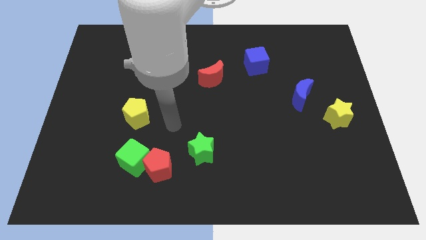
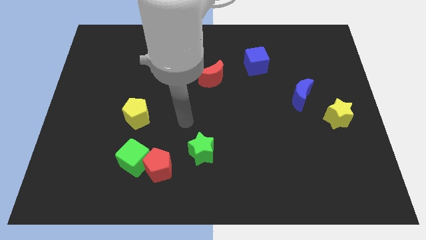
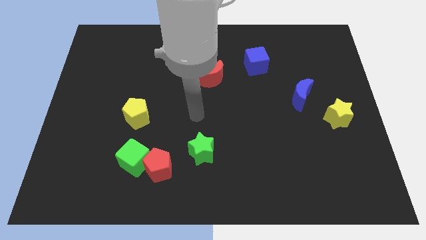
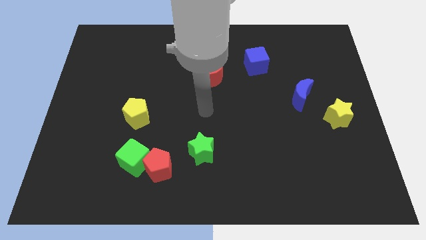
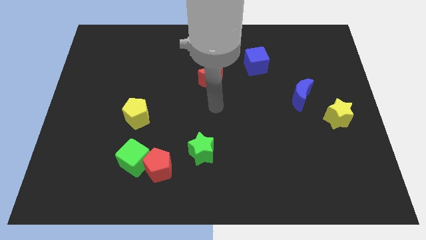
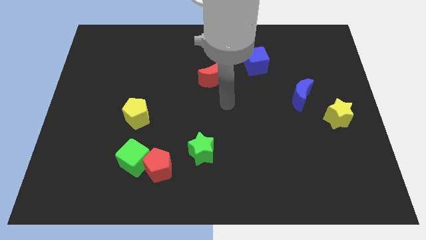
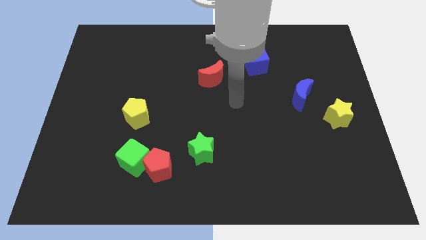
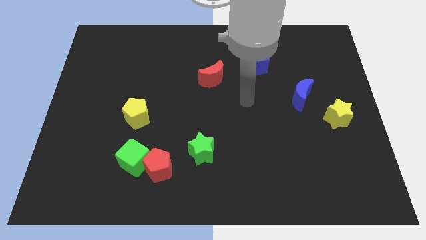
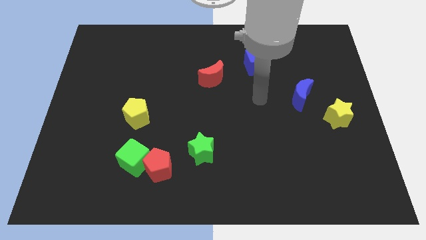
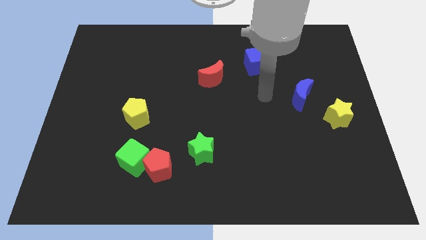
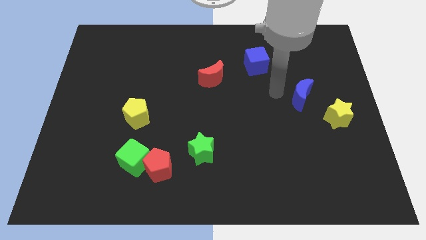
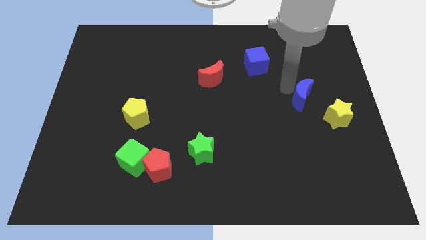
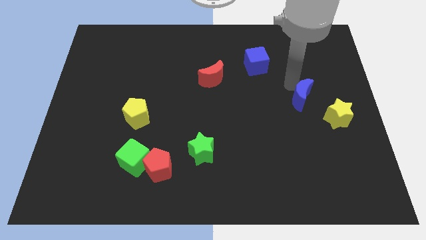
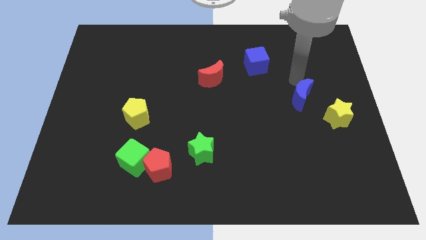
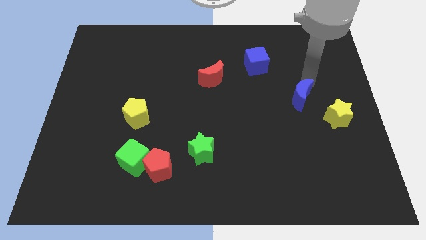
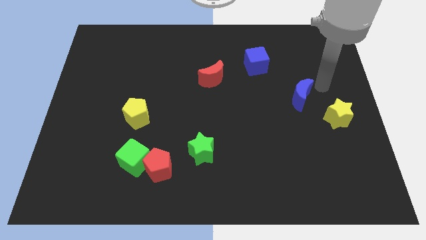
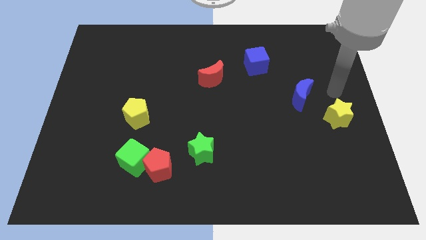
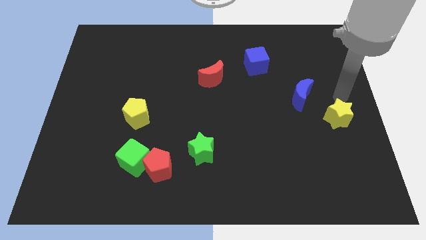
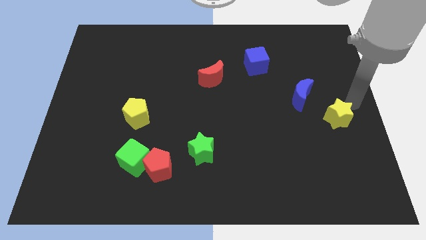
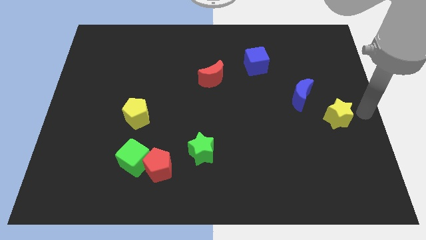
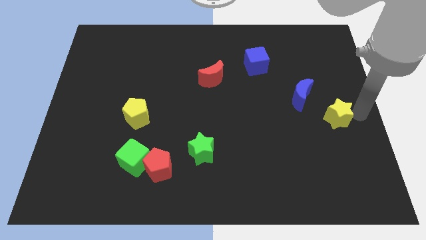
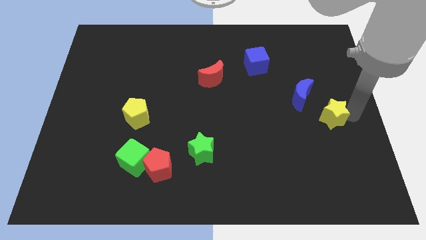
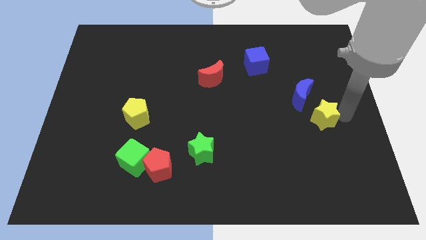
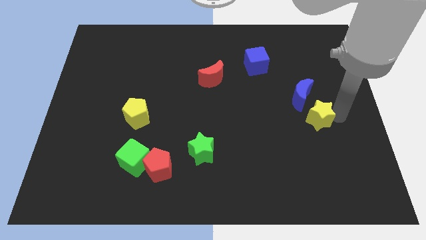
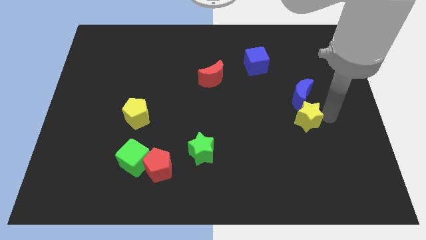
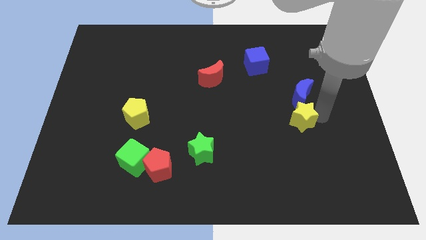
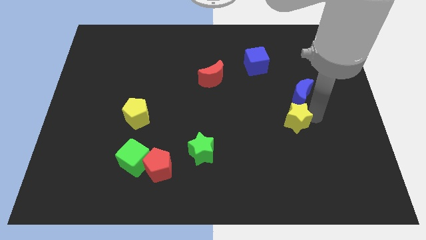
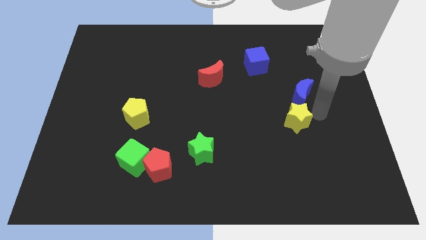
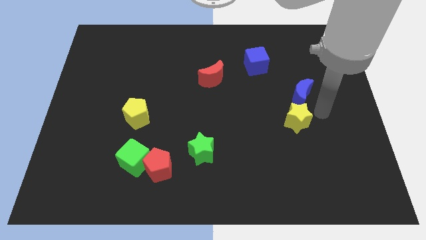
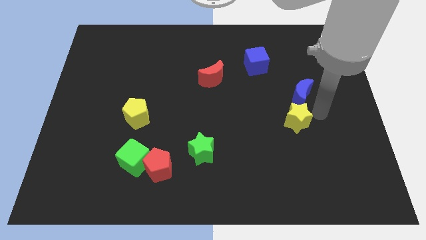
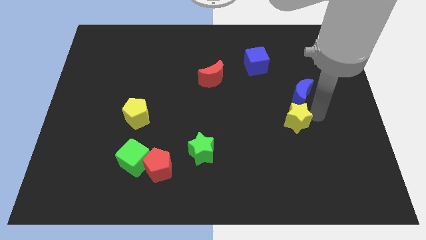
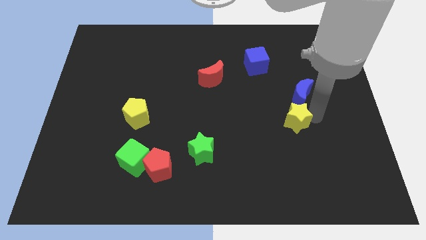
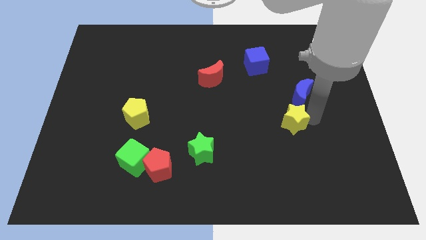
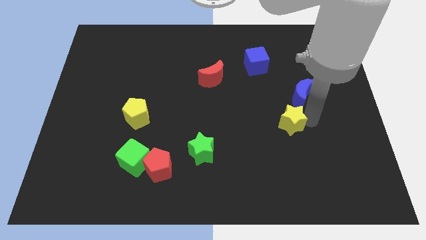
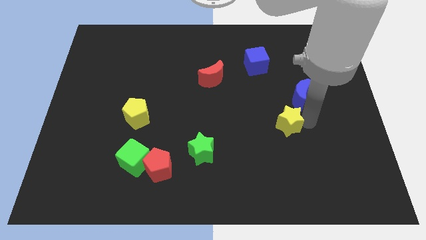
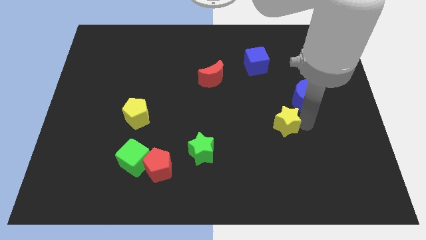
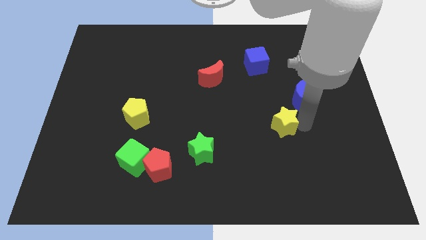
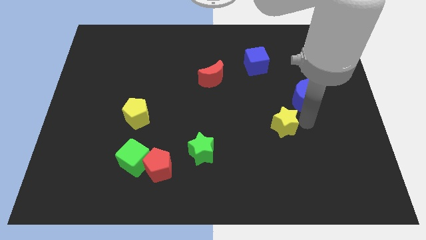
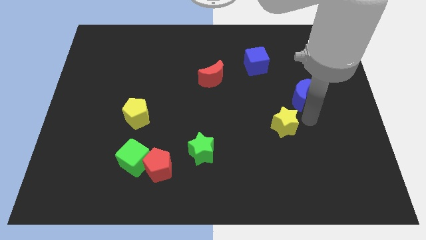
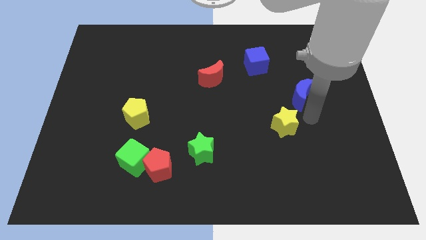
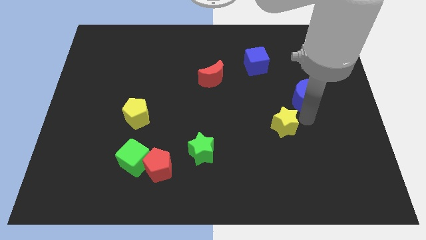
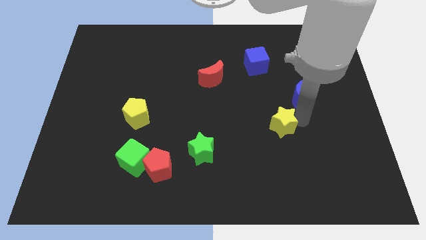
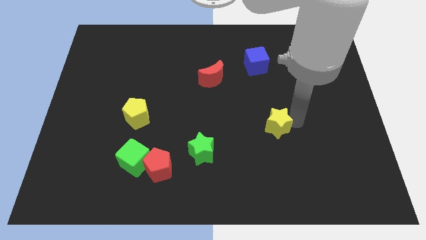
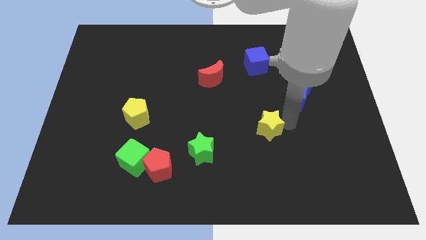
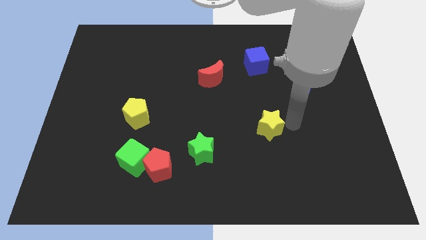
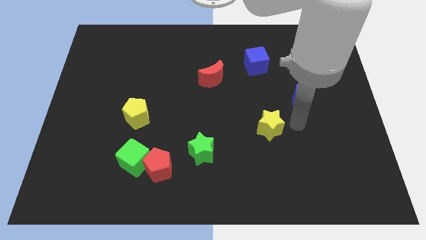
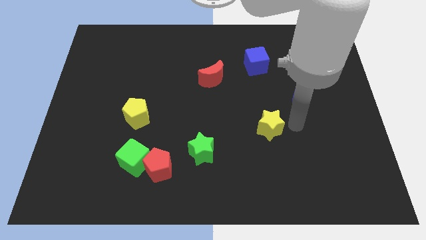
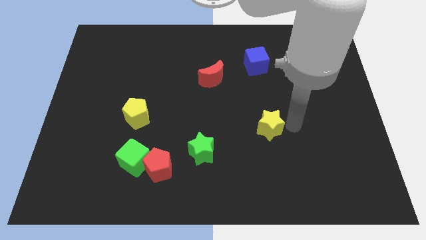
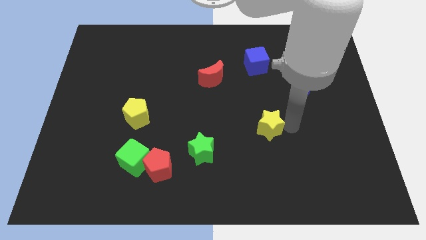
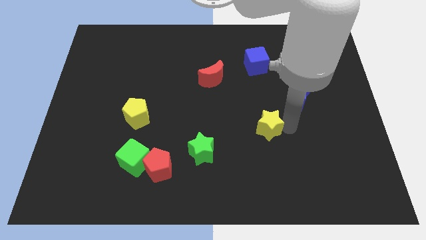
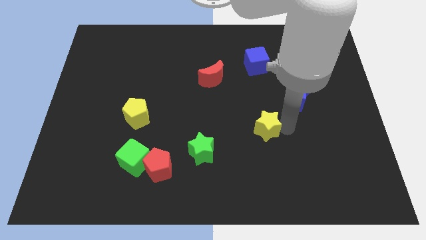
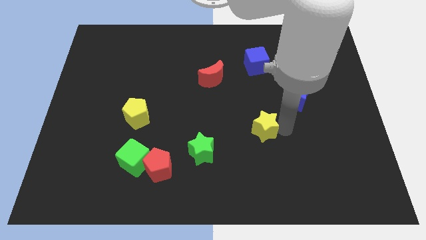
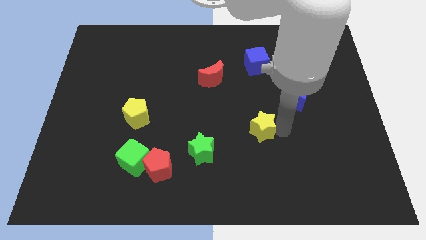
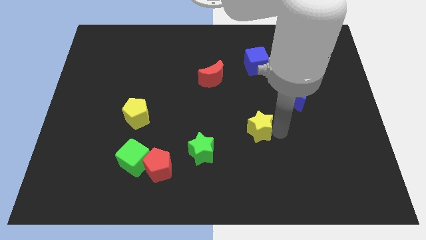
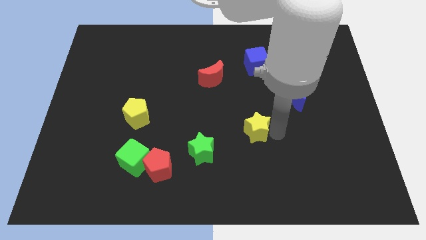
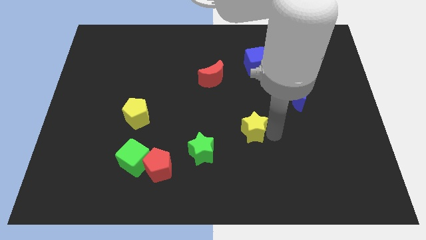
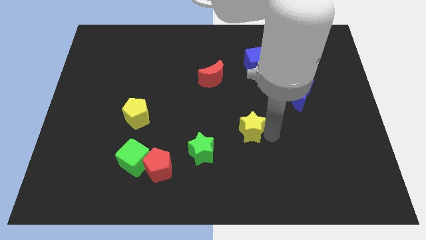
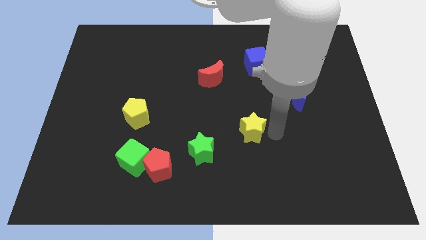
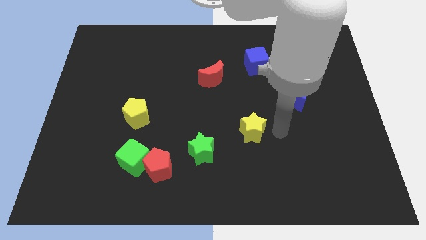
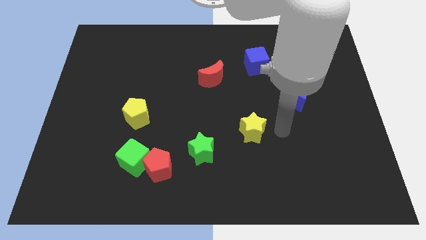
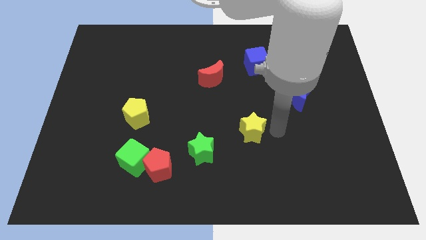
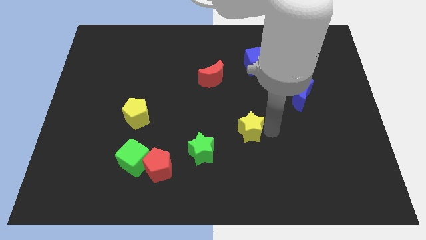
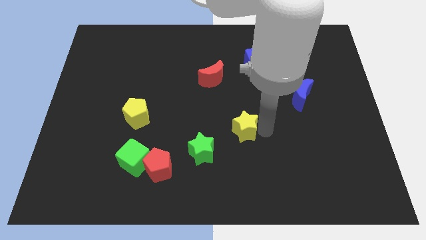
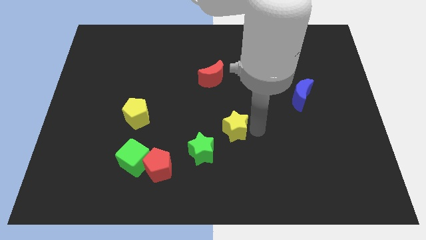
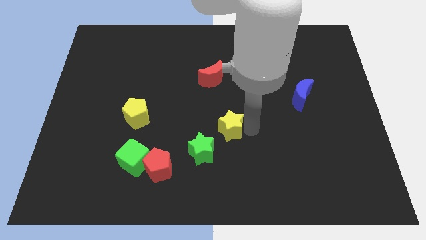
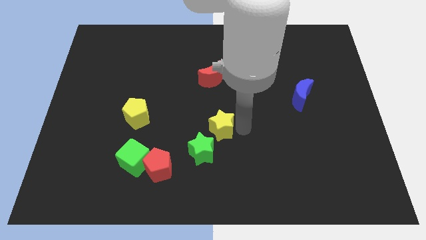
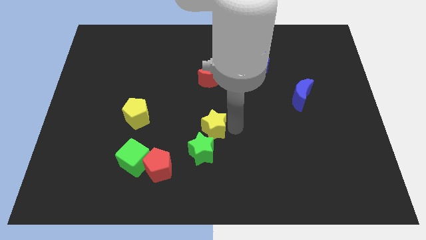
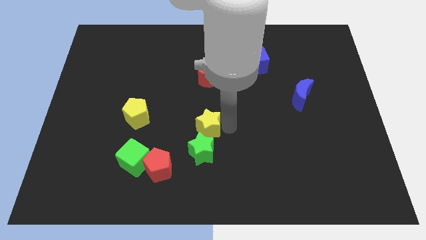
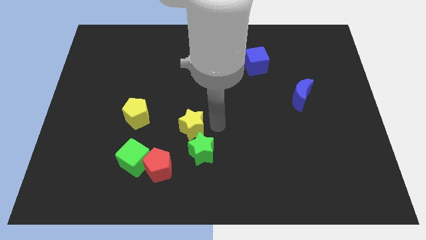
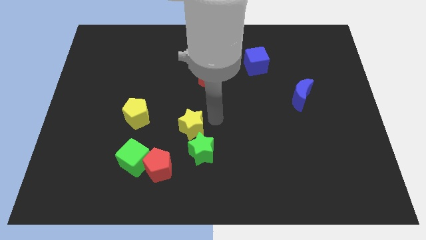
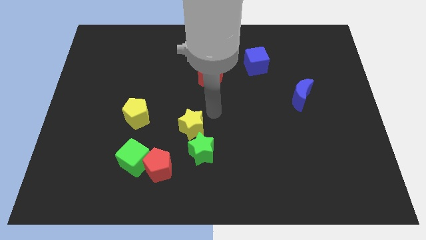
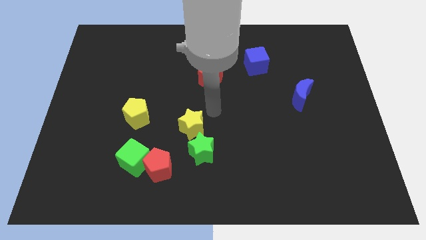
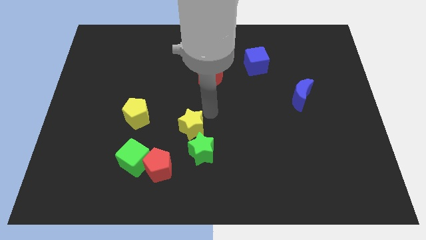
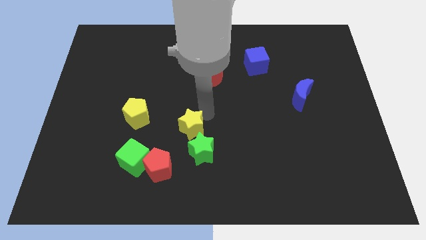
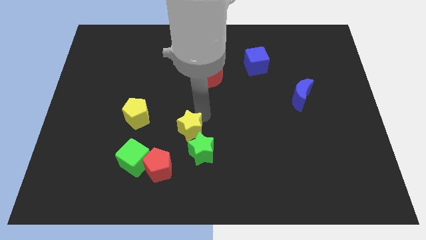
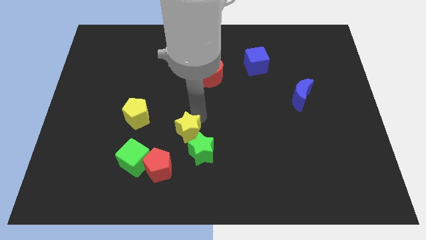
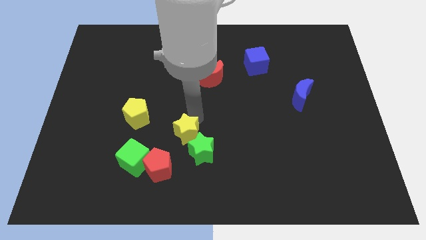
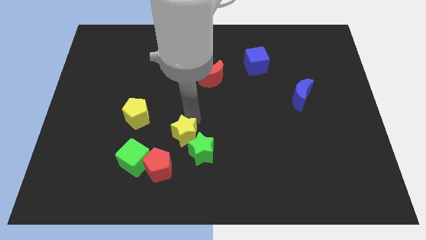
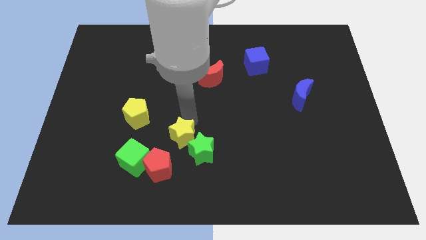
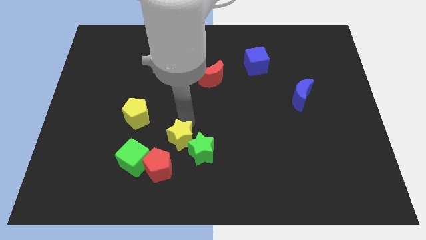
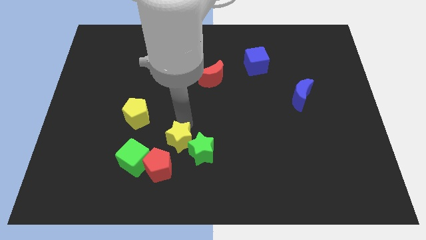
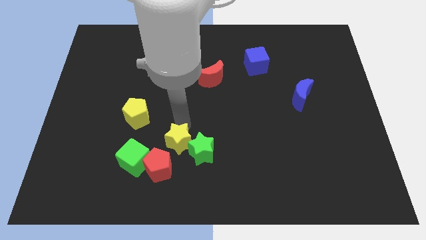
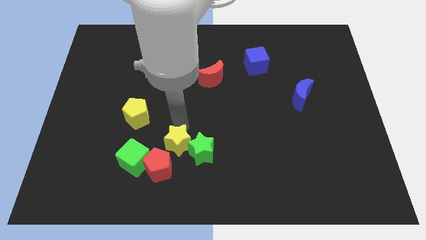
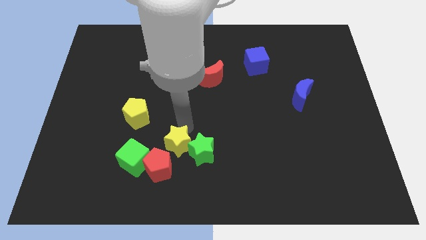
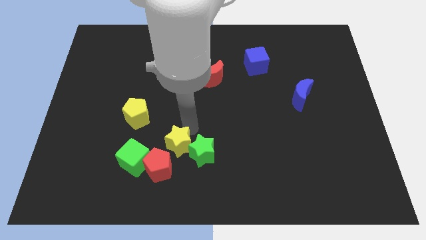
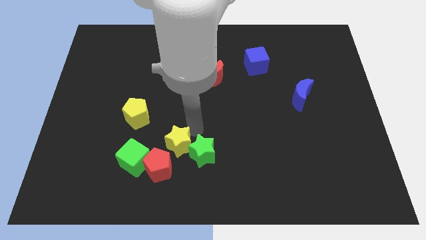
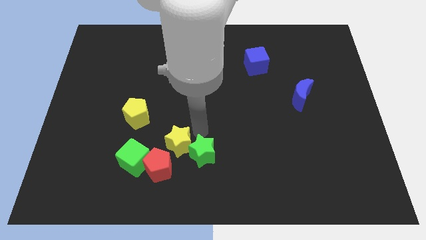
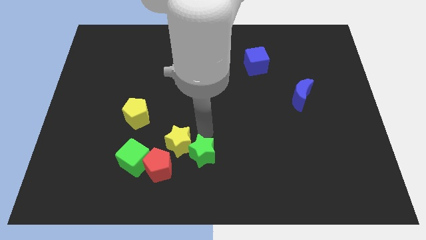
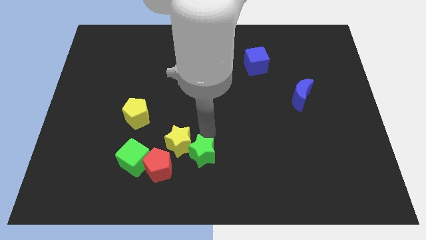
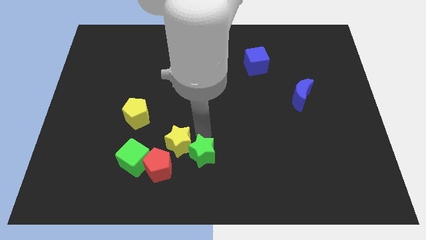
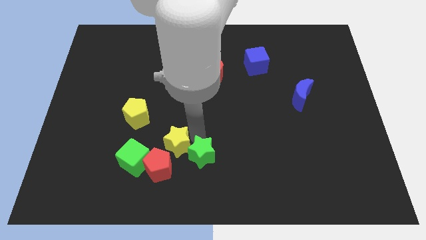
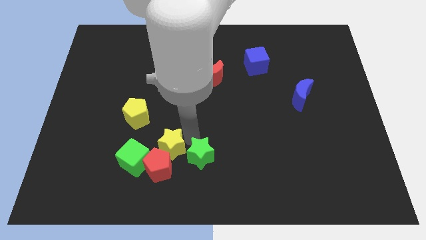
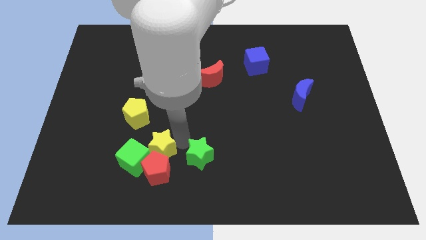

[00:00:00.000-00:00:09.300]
move the yellow star next to the green cube
